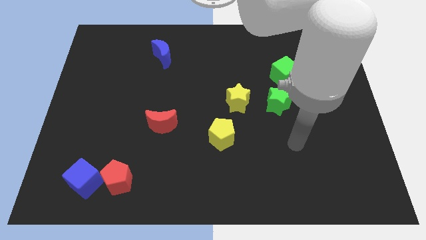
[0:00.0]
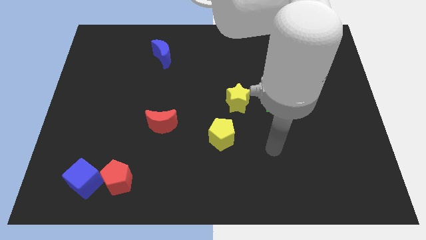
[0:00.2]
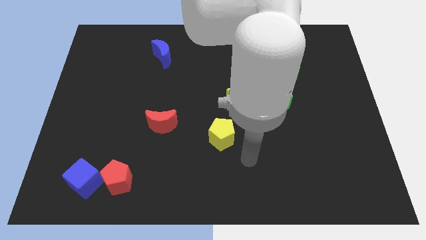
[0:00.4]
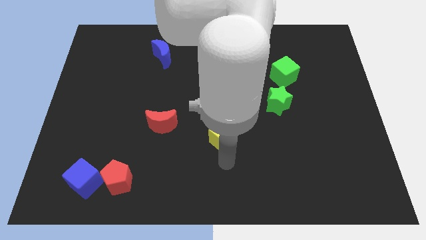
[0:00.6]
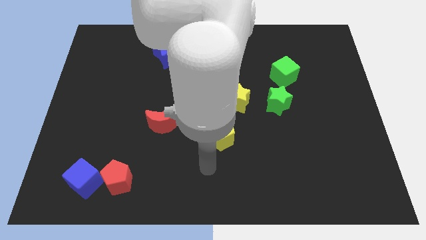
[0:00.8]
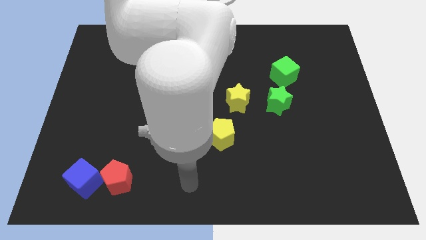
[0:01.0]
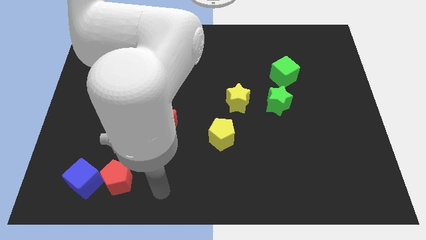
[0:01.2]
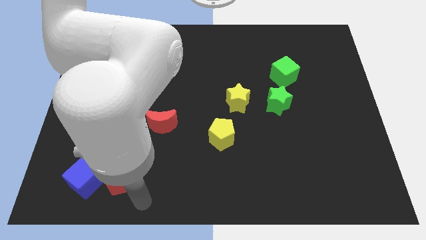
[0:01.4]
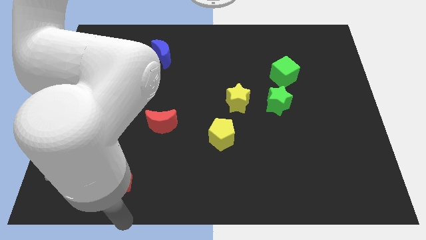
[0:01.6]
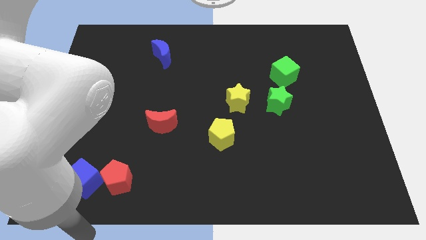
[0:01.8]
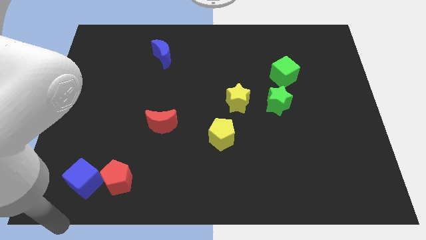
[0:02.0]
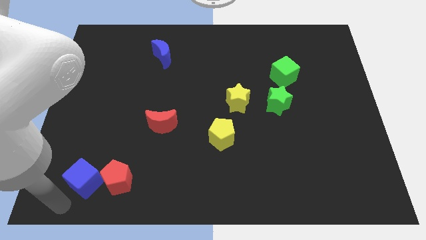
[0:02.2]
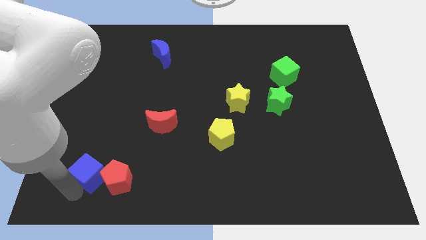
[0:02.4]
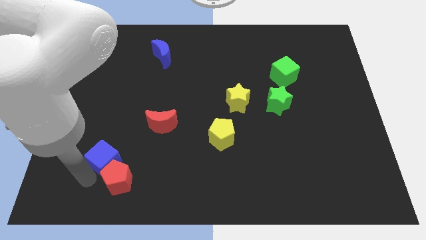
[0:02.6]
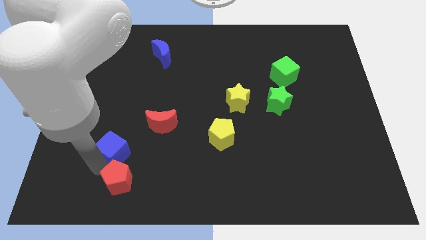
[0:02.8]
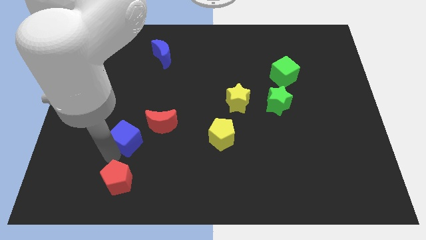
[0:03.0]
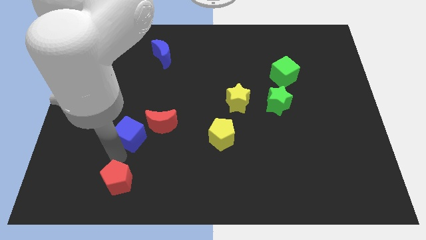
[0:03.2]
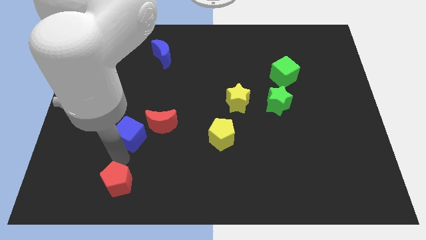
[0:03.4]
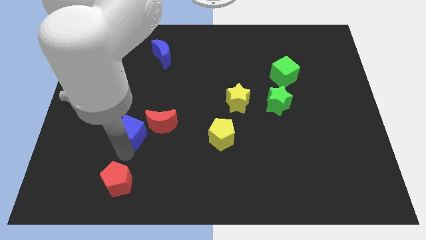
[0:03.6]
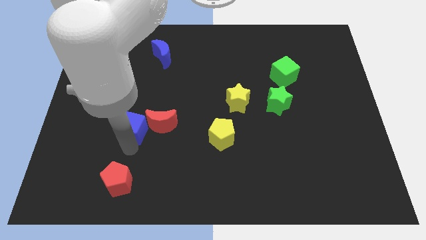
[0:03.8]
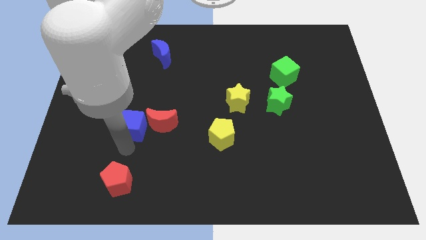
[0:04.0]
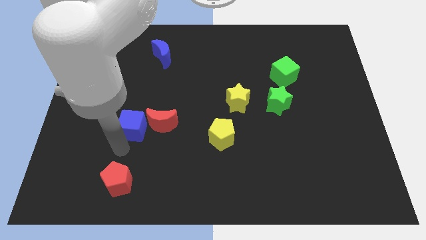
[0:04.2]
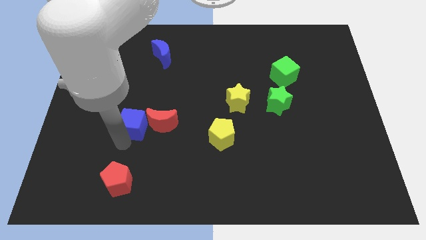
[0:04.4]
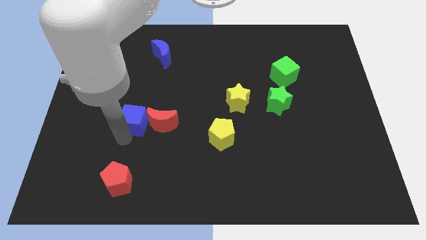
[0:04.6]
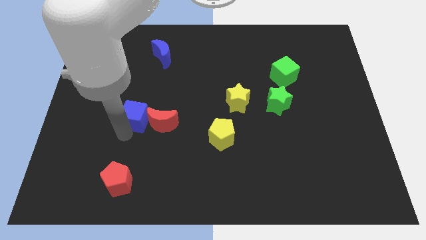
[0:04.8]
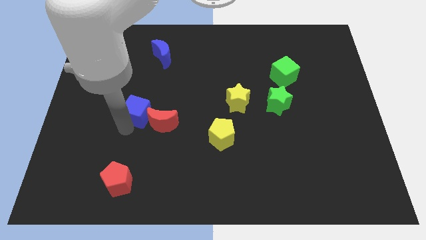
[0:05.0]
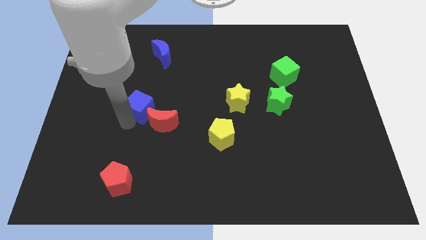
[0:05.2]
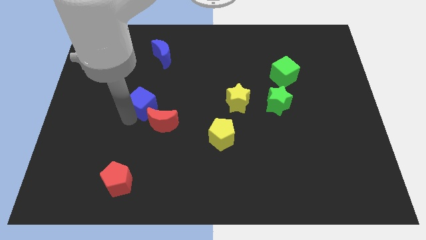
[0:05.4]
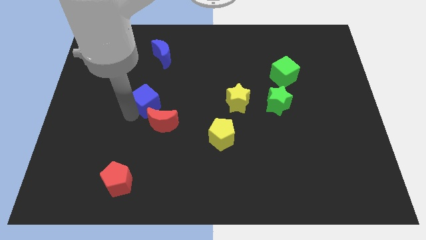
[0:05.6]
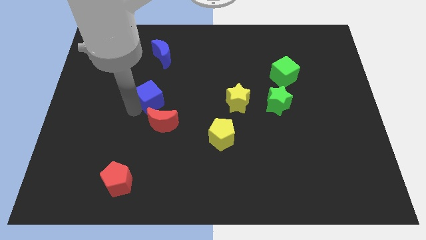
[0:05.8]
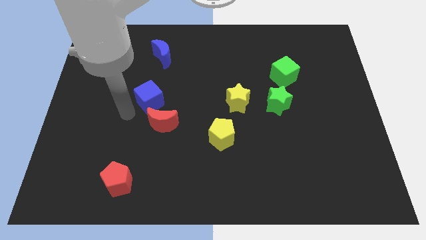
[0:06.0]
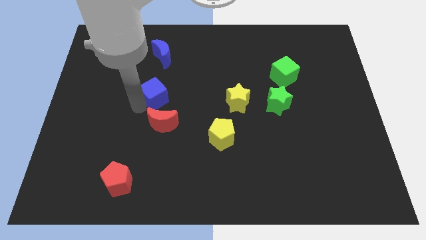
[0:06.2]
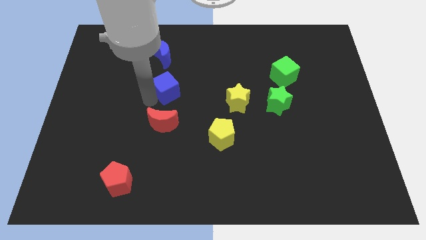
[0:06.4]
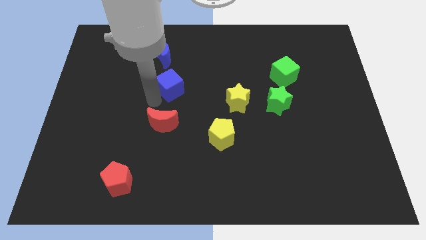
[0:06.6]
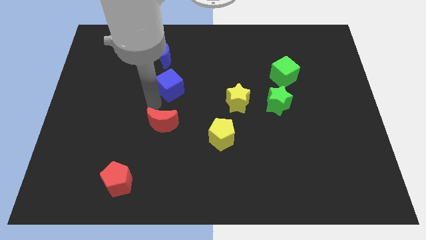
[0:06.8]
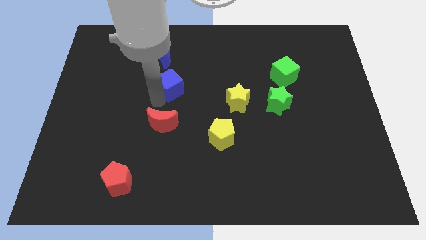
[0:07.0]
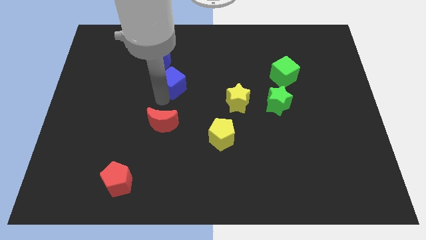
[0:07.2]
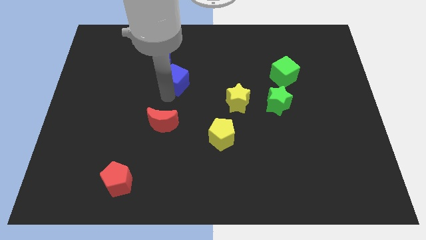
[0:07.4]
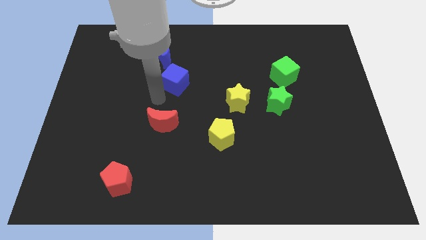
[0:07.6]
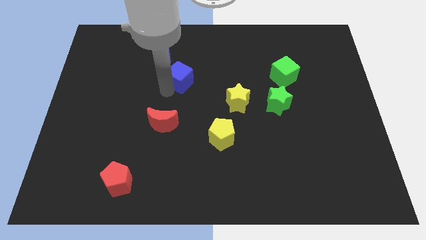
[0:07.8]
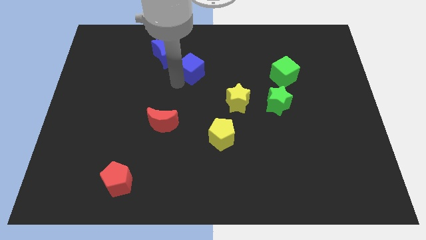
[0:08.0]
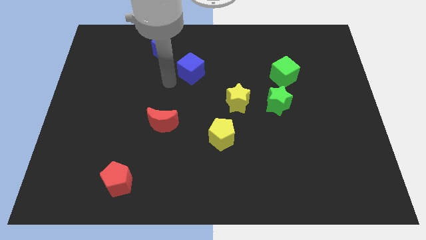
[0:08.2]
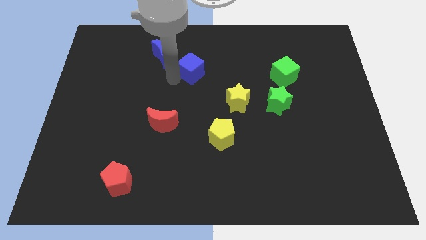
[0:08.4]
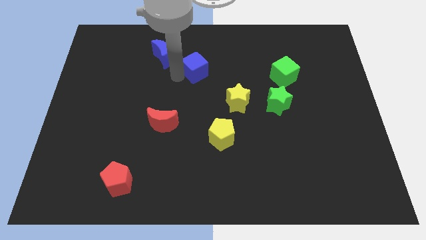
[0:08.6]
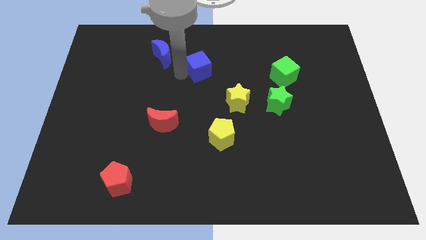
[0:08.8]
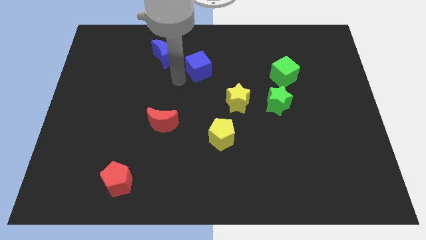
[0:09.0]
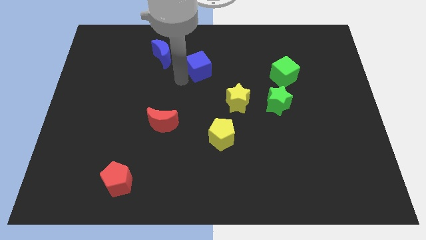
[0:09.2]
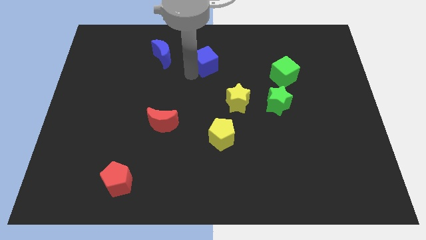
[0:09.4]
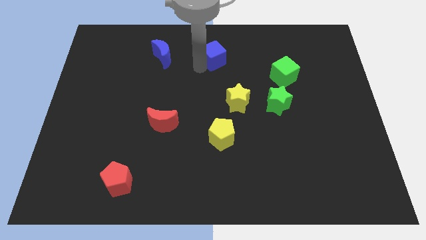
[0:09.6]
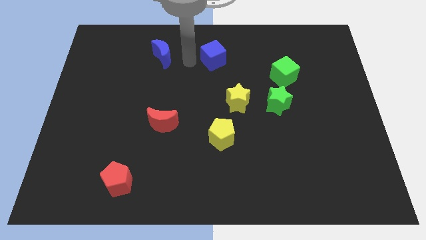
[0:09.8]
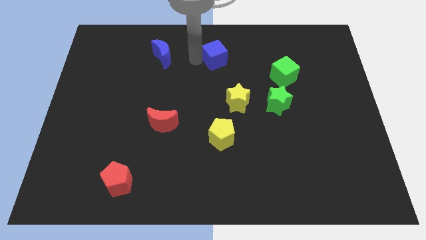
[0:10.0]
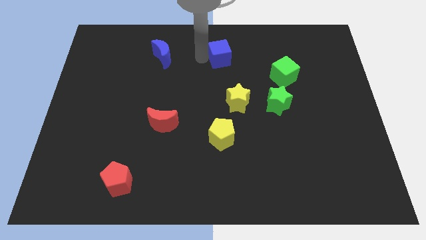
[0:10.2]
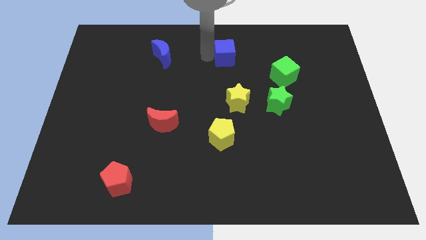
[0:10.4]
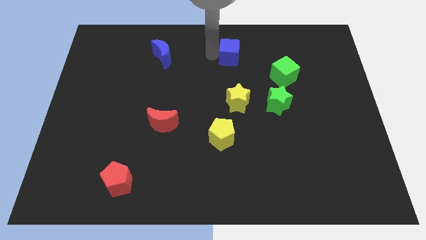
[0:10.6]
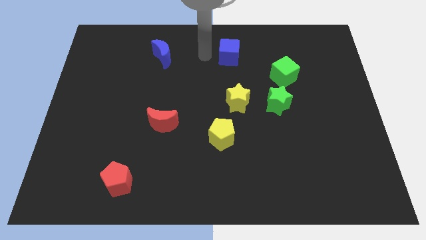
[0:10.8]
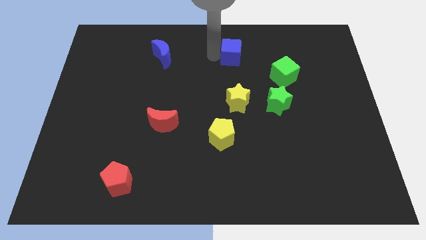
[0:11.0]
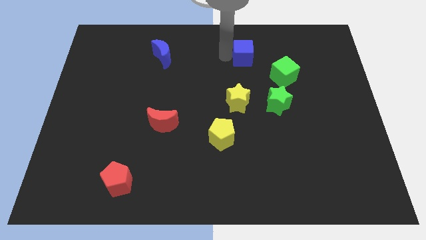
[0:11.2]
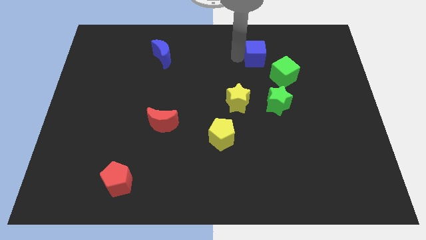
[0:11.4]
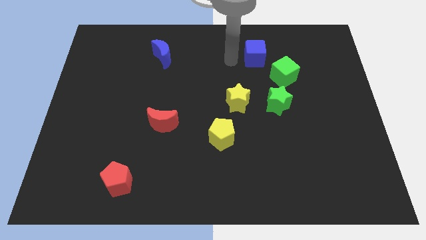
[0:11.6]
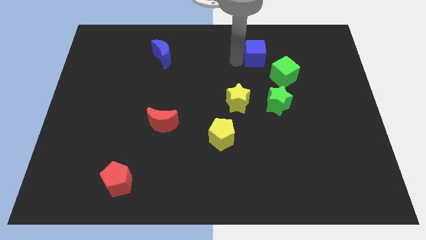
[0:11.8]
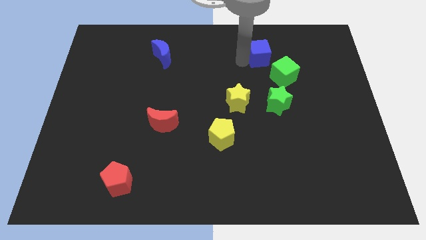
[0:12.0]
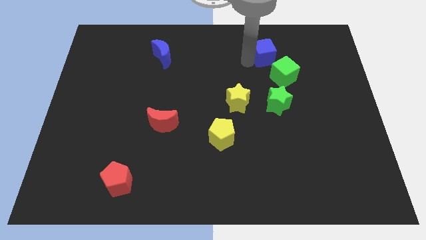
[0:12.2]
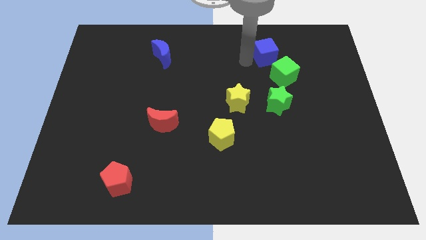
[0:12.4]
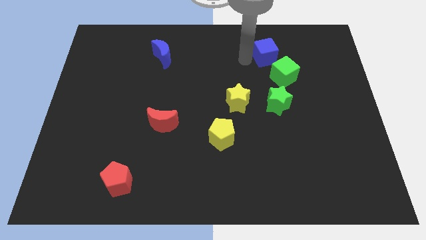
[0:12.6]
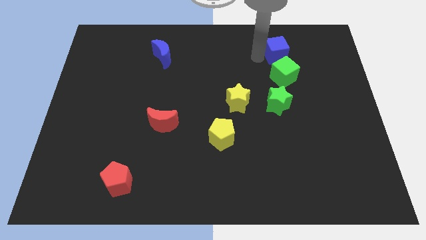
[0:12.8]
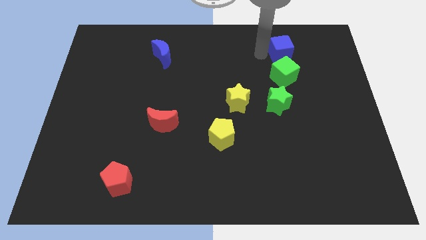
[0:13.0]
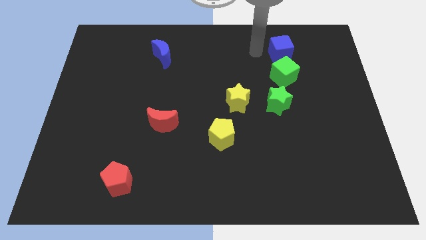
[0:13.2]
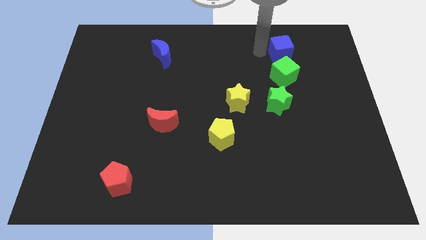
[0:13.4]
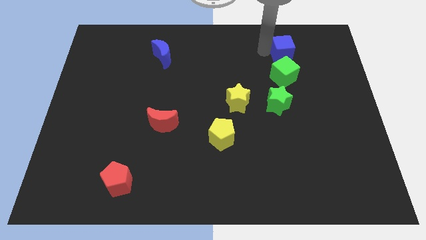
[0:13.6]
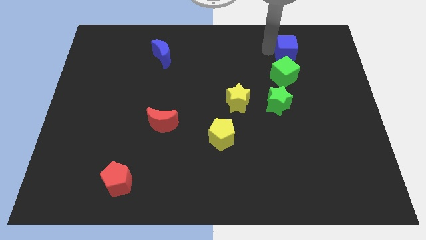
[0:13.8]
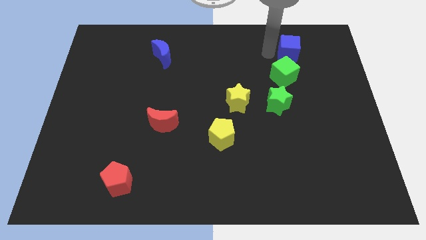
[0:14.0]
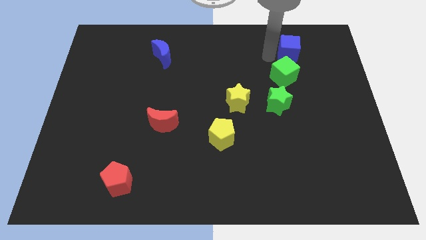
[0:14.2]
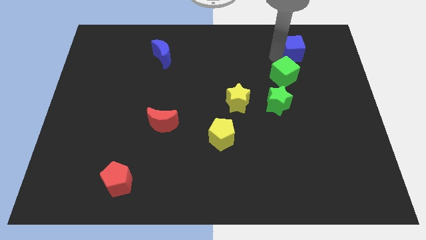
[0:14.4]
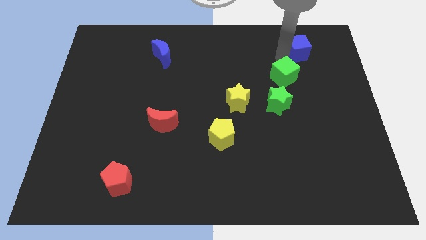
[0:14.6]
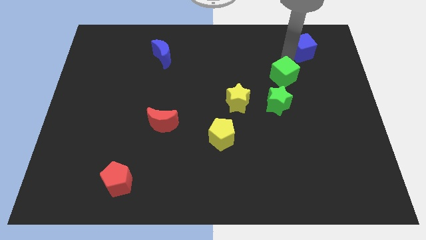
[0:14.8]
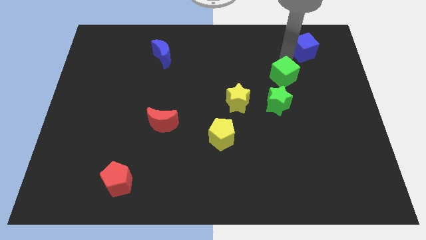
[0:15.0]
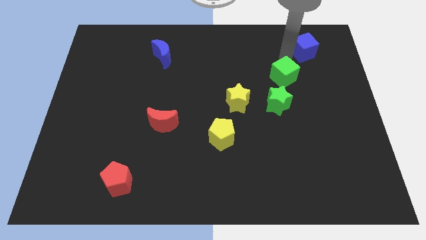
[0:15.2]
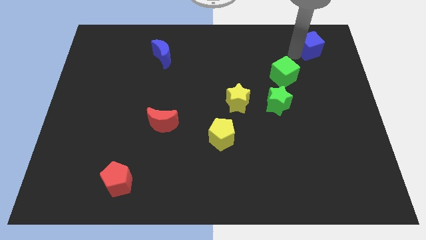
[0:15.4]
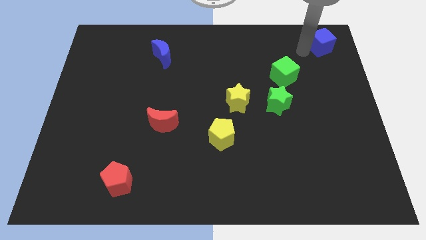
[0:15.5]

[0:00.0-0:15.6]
put the blue cube to the top right corner
